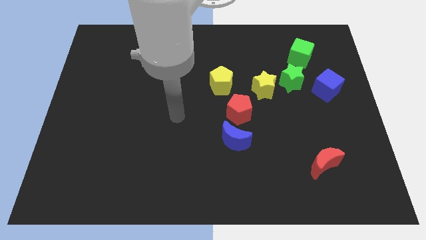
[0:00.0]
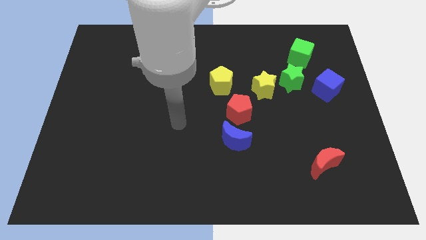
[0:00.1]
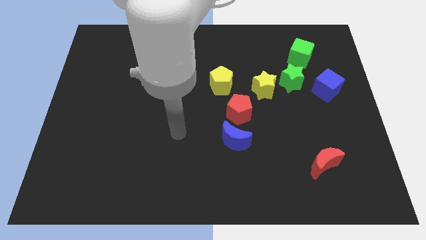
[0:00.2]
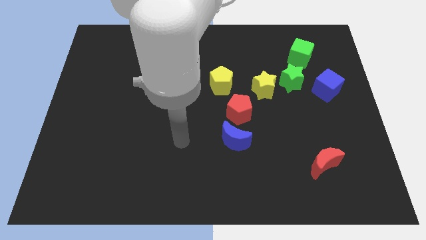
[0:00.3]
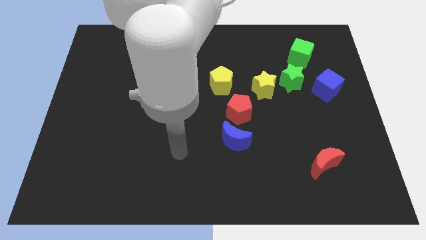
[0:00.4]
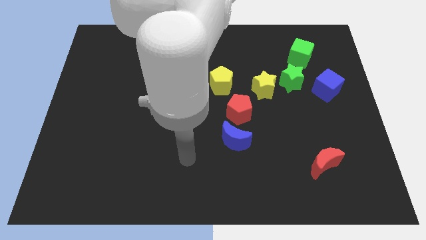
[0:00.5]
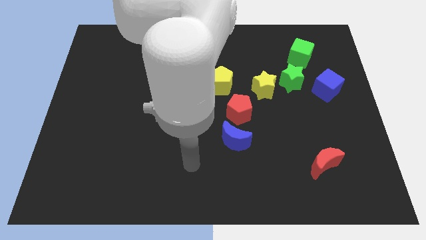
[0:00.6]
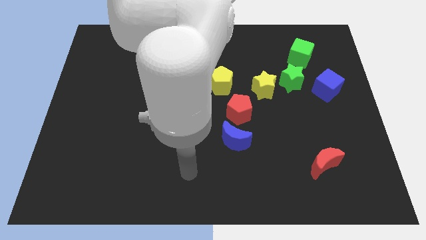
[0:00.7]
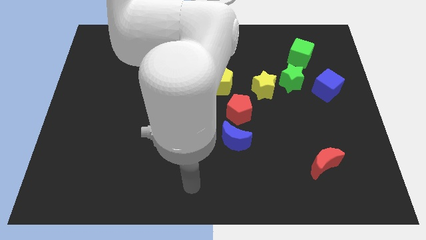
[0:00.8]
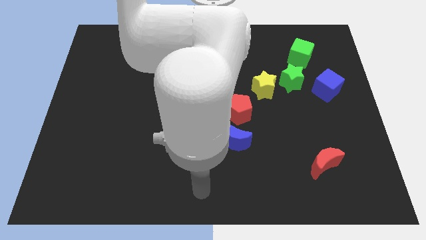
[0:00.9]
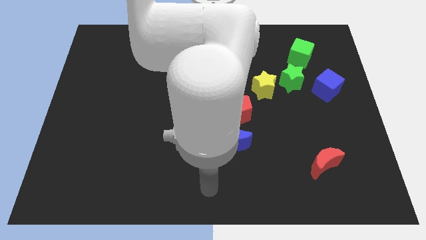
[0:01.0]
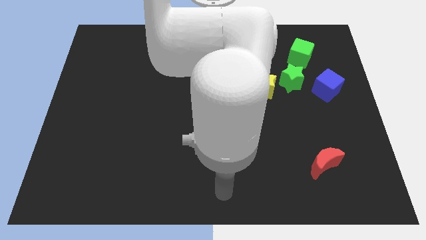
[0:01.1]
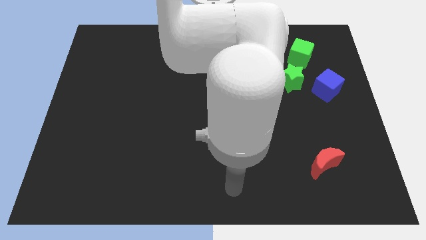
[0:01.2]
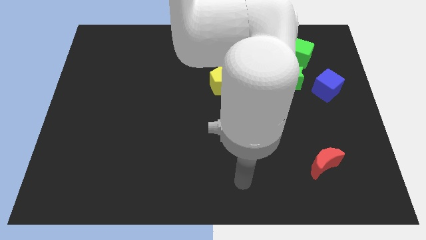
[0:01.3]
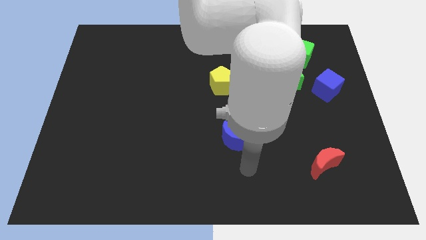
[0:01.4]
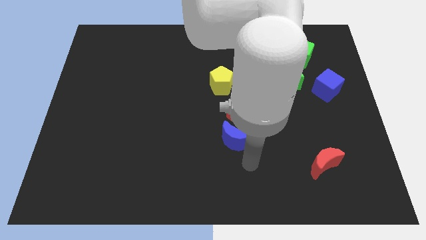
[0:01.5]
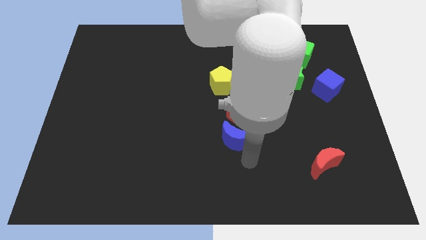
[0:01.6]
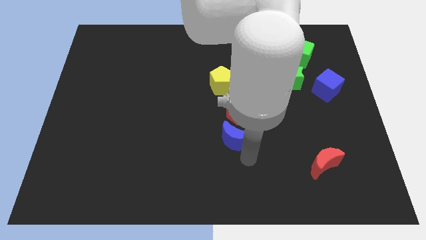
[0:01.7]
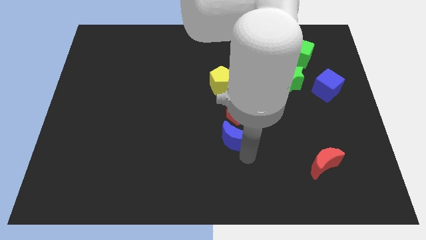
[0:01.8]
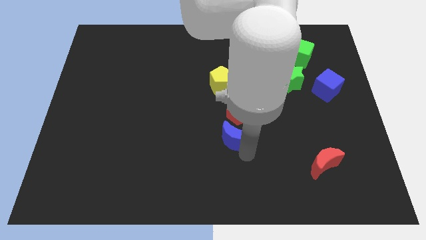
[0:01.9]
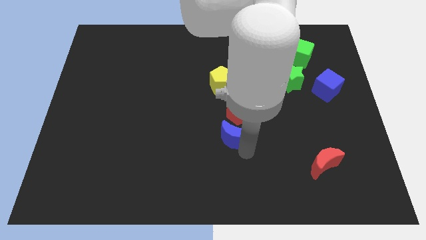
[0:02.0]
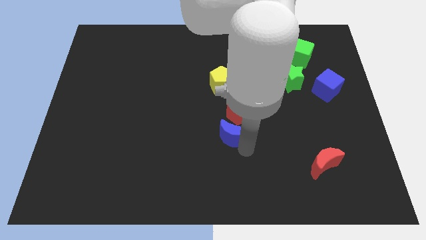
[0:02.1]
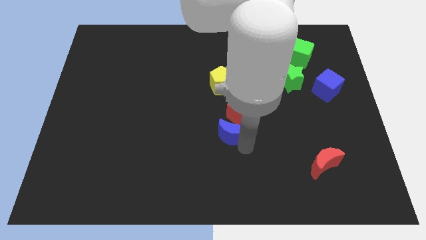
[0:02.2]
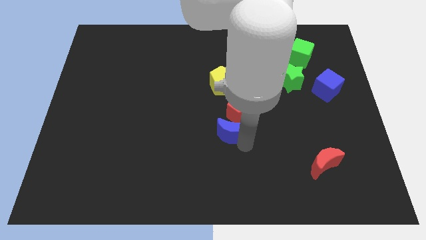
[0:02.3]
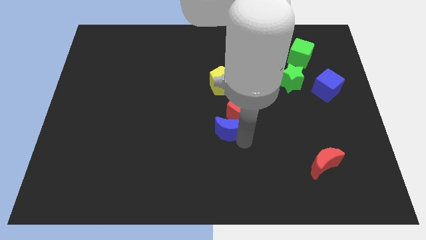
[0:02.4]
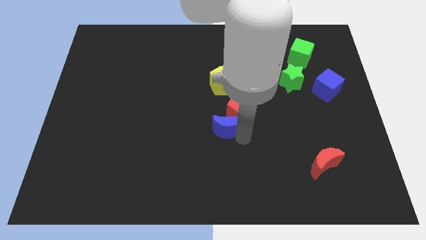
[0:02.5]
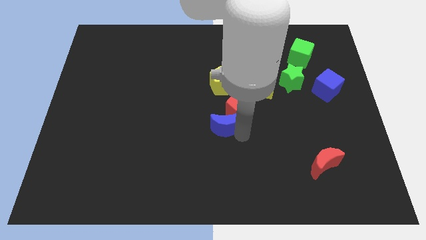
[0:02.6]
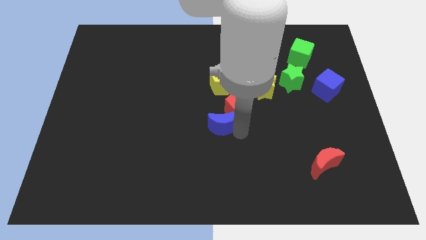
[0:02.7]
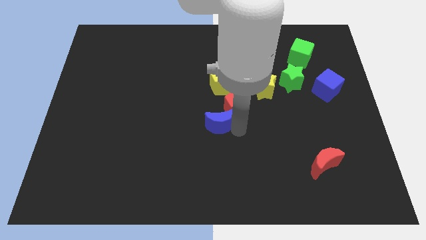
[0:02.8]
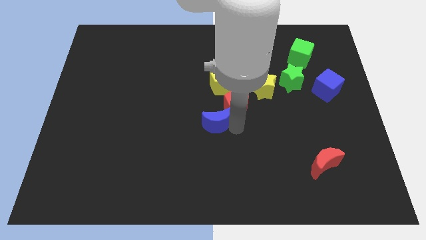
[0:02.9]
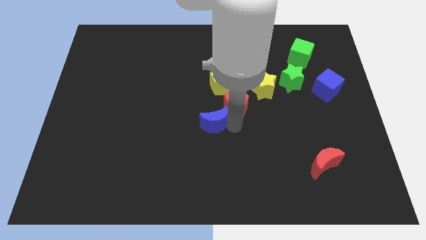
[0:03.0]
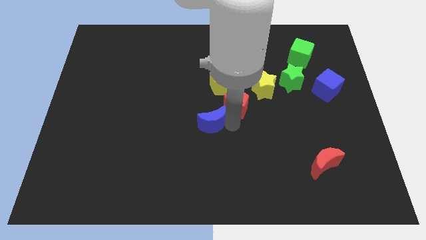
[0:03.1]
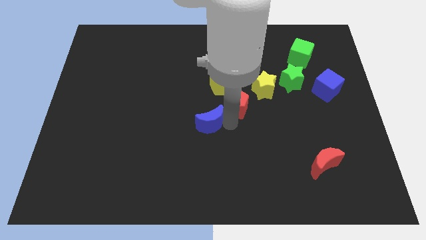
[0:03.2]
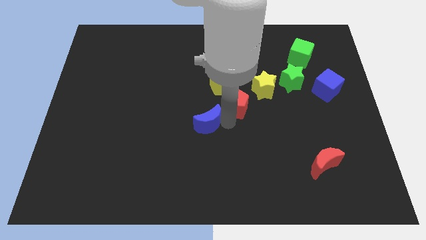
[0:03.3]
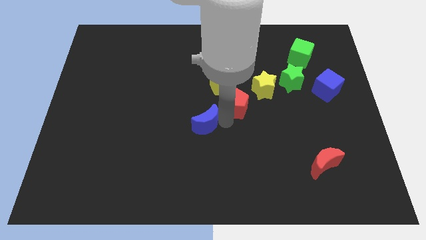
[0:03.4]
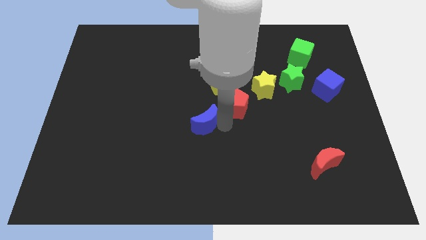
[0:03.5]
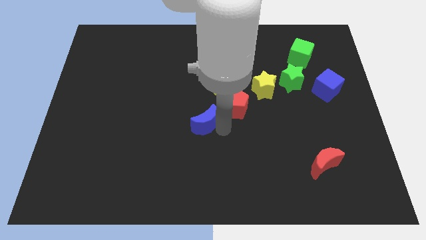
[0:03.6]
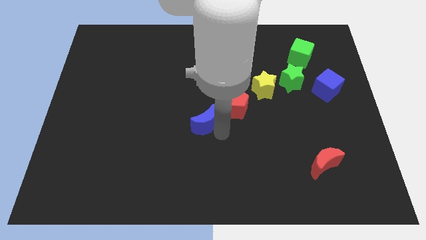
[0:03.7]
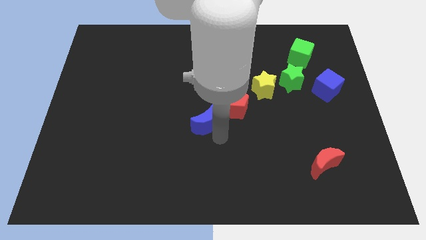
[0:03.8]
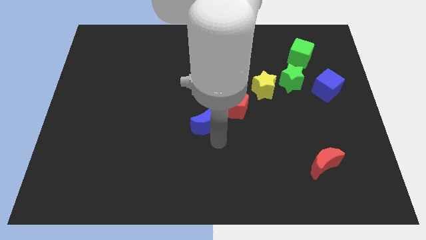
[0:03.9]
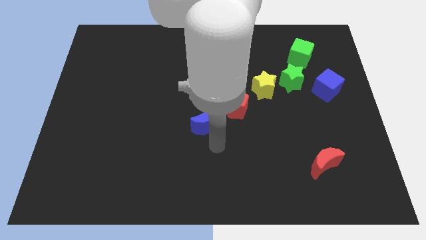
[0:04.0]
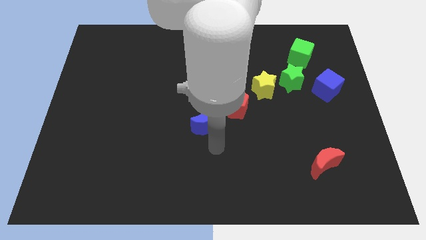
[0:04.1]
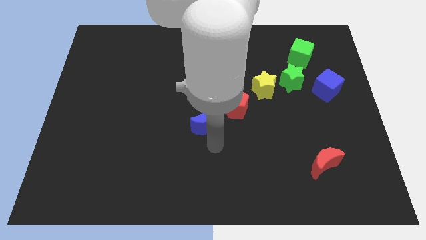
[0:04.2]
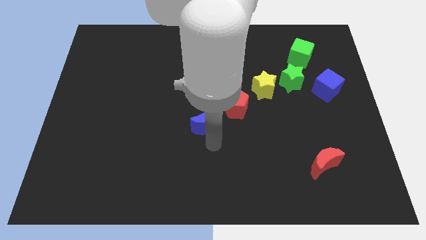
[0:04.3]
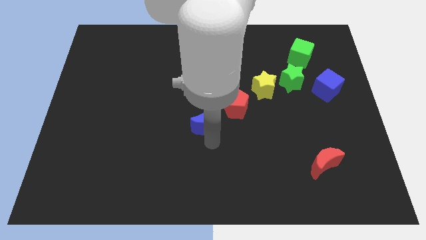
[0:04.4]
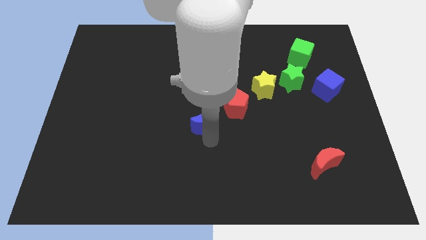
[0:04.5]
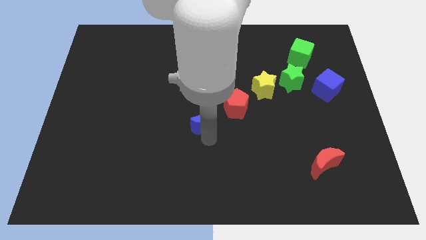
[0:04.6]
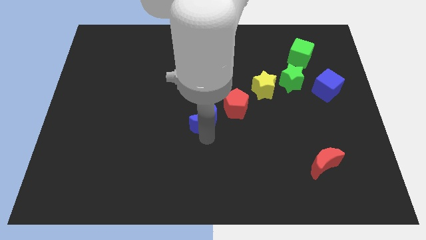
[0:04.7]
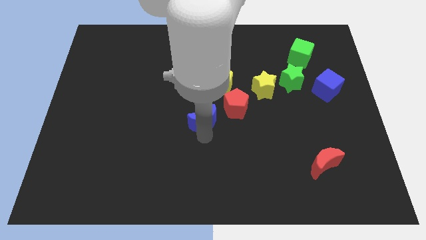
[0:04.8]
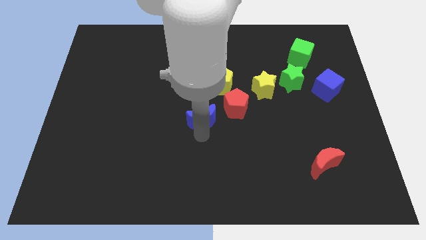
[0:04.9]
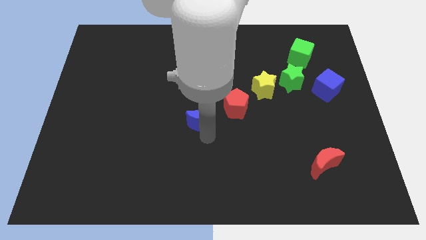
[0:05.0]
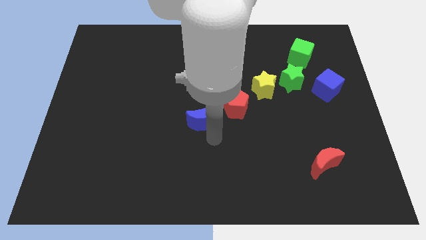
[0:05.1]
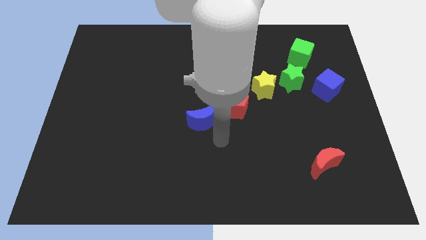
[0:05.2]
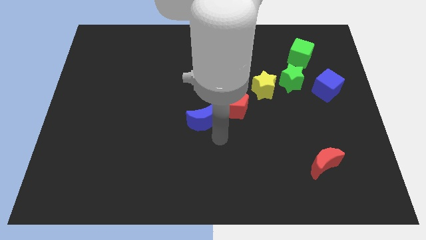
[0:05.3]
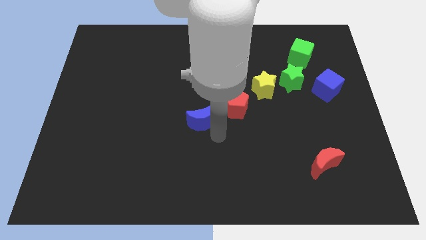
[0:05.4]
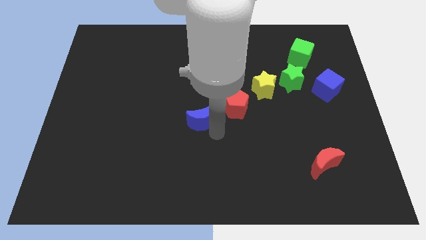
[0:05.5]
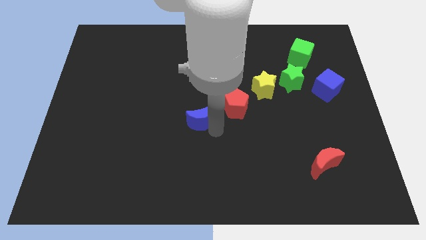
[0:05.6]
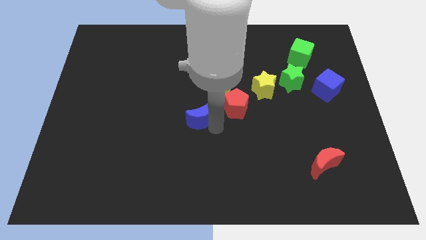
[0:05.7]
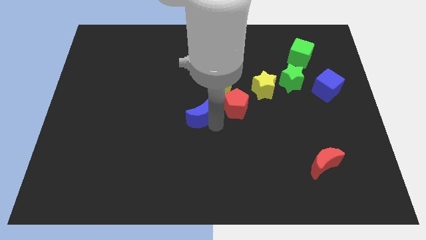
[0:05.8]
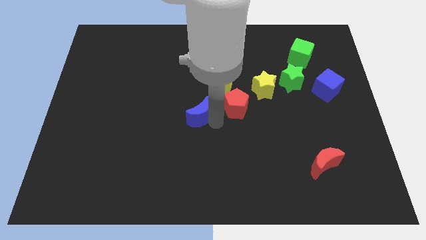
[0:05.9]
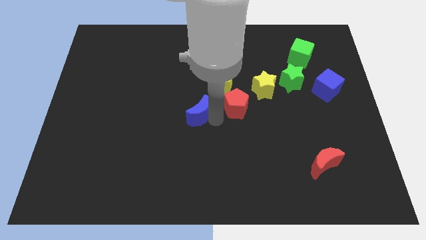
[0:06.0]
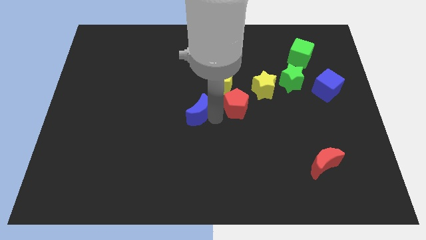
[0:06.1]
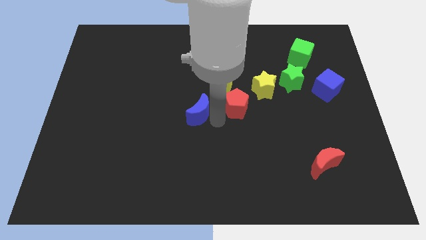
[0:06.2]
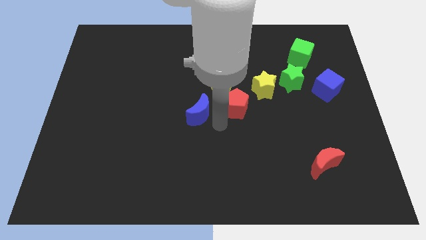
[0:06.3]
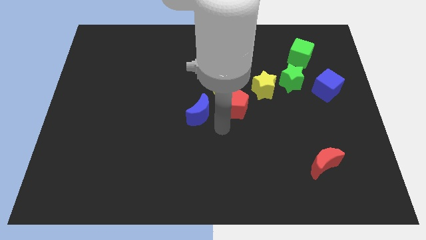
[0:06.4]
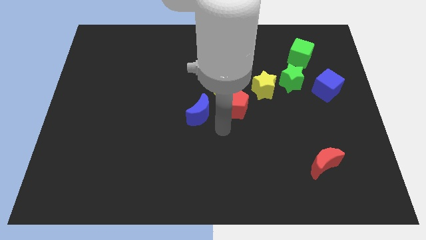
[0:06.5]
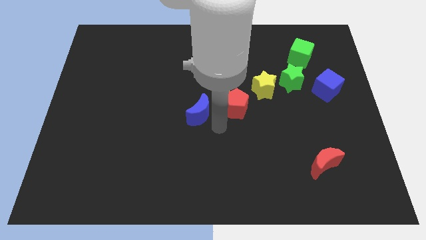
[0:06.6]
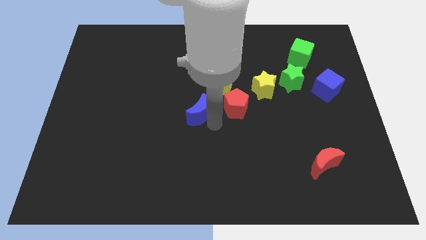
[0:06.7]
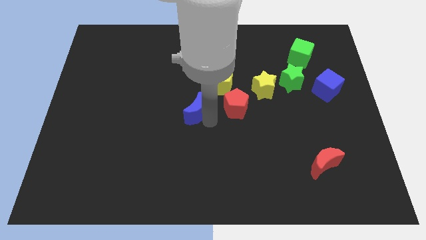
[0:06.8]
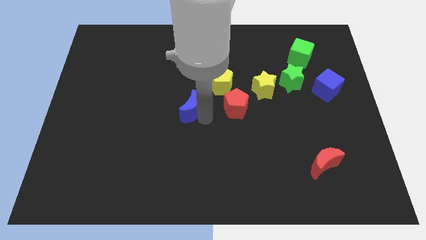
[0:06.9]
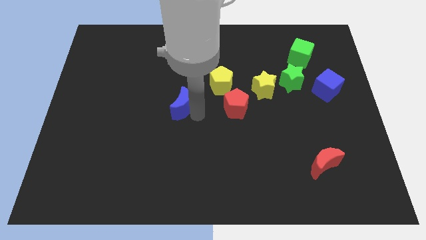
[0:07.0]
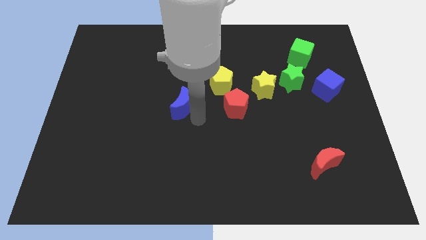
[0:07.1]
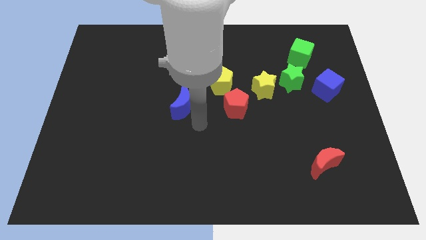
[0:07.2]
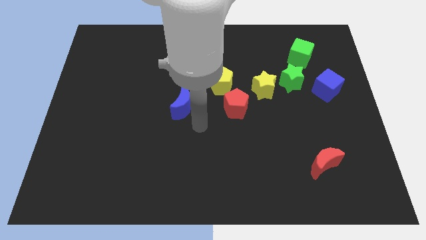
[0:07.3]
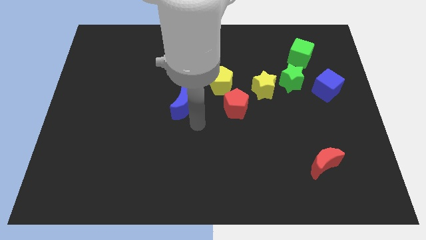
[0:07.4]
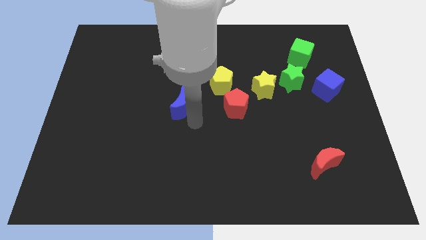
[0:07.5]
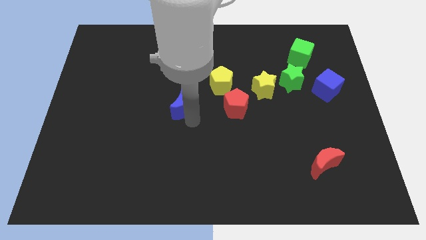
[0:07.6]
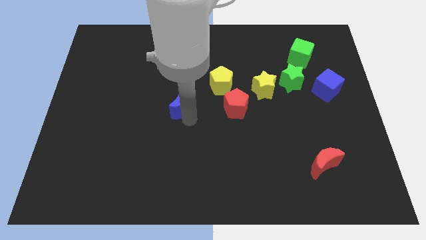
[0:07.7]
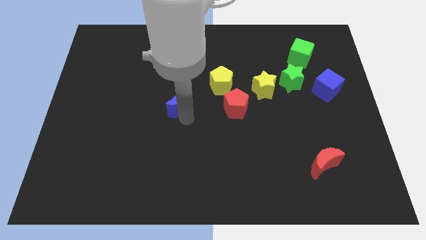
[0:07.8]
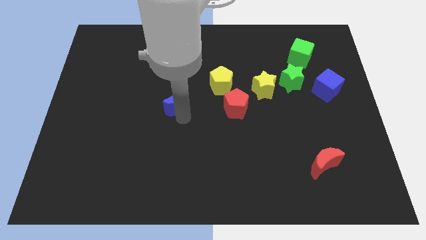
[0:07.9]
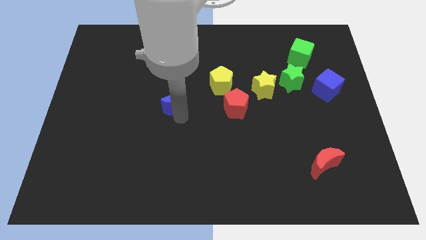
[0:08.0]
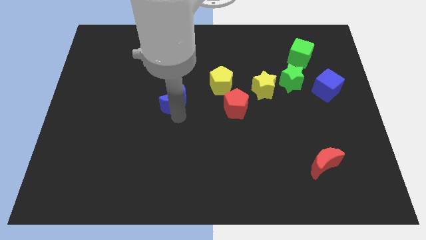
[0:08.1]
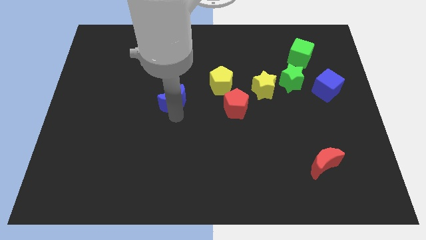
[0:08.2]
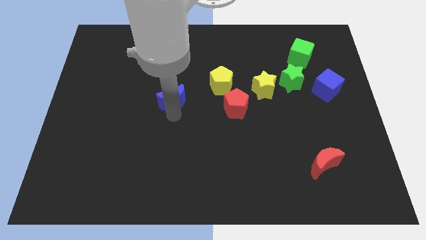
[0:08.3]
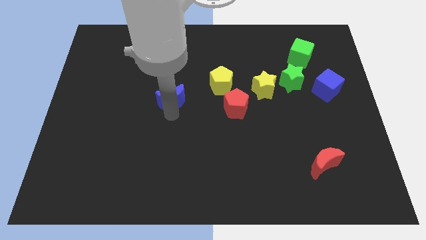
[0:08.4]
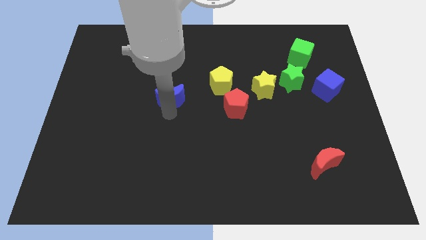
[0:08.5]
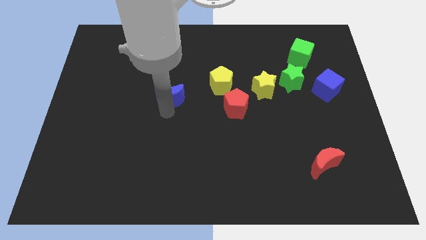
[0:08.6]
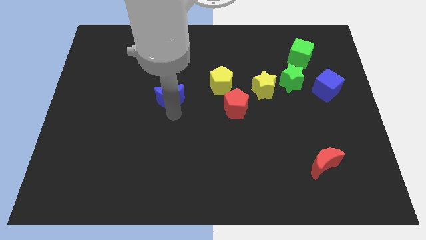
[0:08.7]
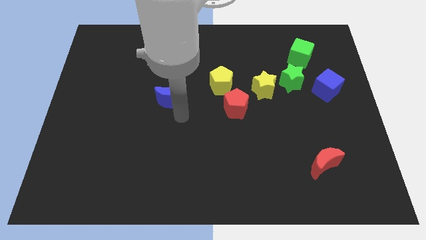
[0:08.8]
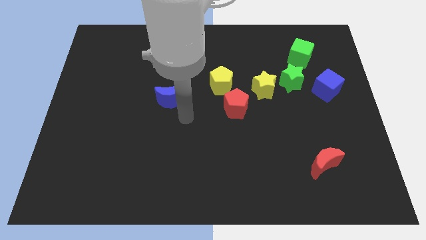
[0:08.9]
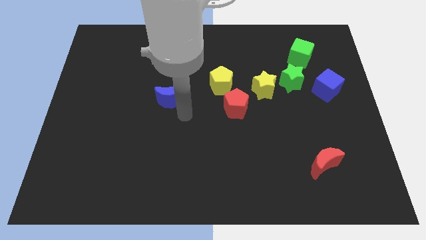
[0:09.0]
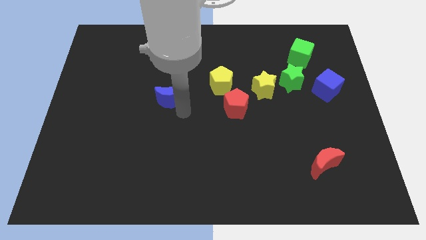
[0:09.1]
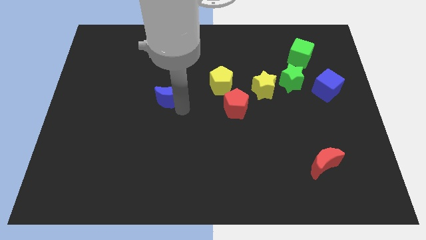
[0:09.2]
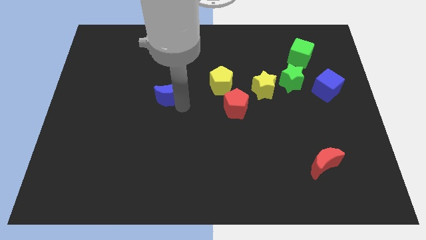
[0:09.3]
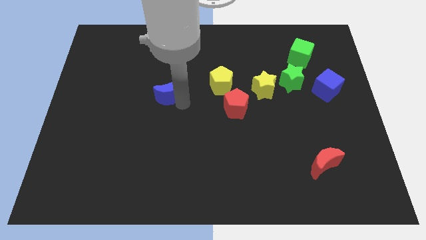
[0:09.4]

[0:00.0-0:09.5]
move the blue moon up and then to the left
